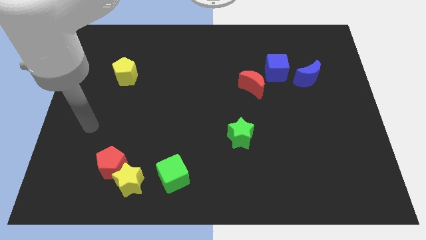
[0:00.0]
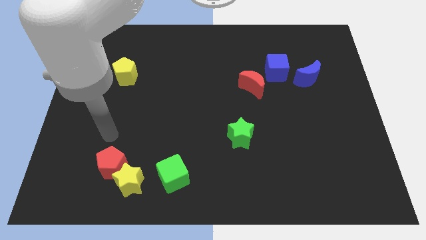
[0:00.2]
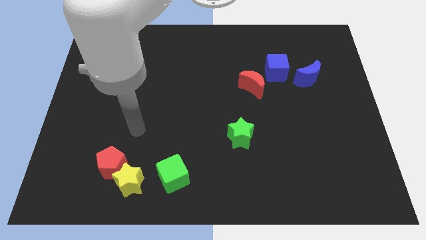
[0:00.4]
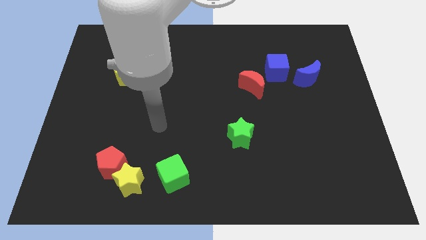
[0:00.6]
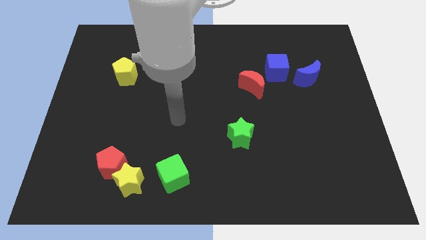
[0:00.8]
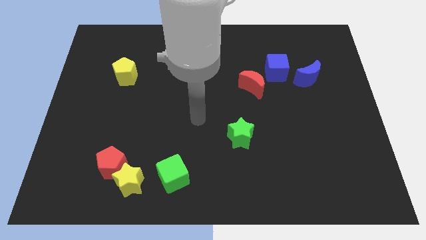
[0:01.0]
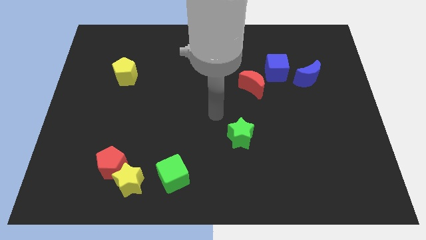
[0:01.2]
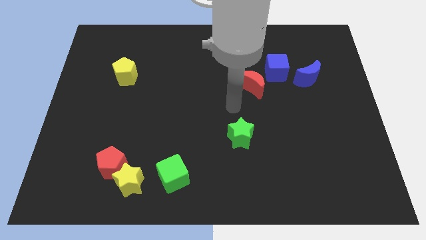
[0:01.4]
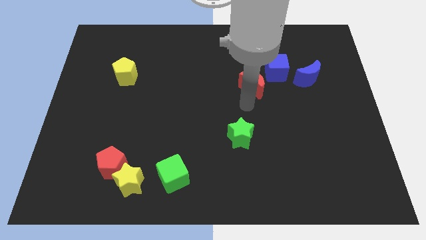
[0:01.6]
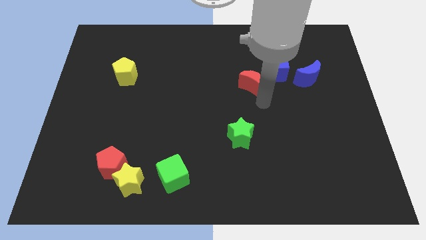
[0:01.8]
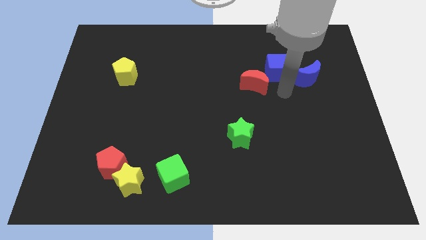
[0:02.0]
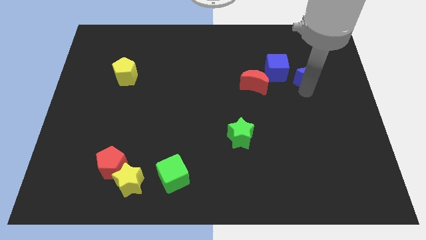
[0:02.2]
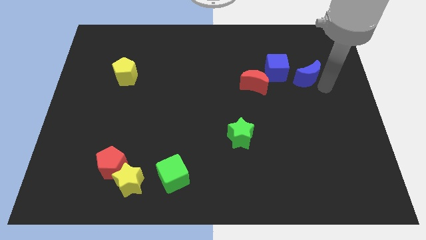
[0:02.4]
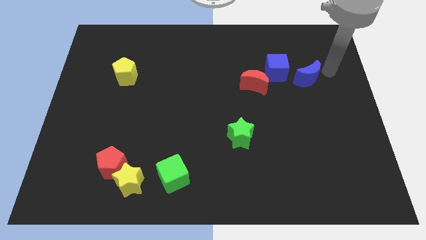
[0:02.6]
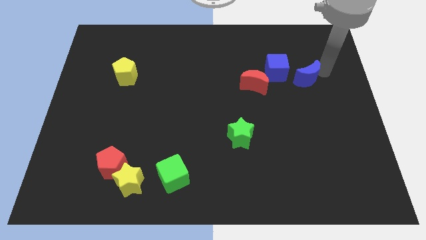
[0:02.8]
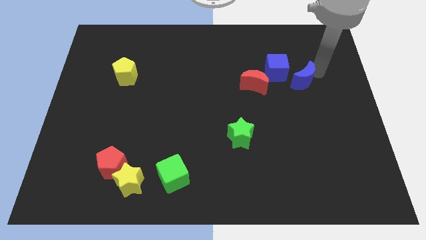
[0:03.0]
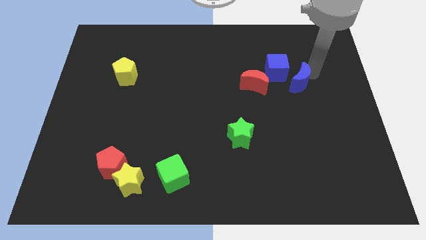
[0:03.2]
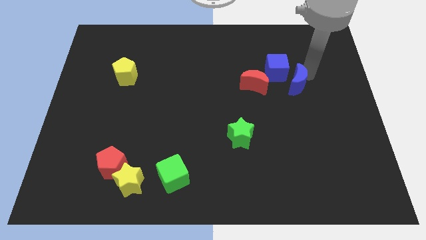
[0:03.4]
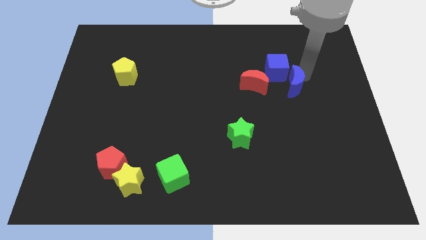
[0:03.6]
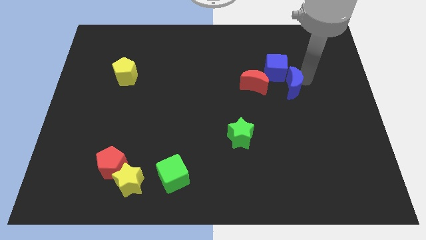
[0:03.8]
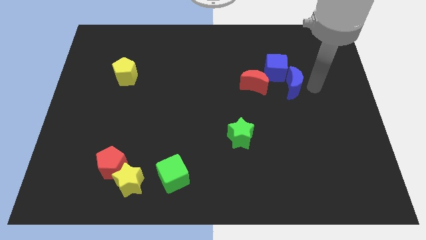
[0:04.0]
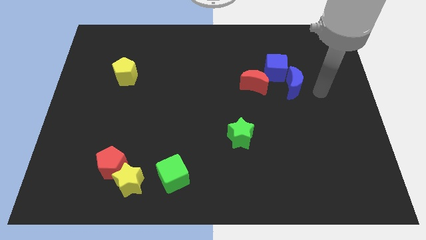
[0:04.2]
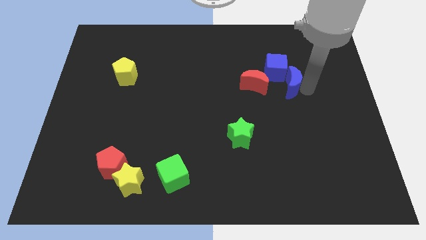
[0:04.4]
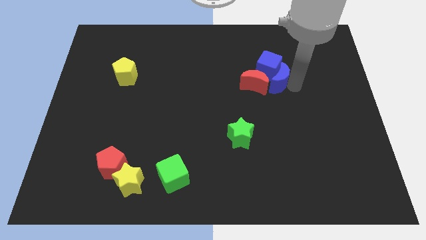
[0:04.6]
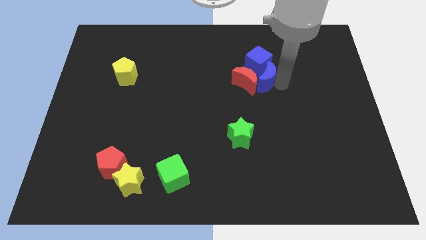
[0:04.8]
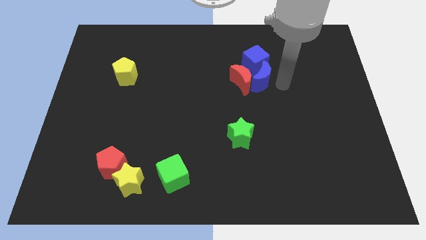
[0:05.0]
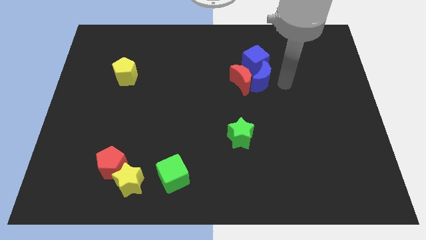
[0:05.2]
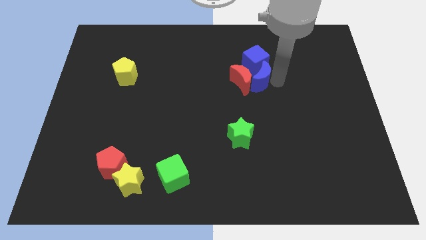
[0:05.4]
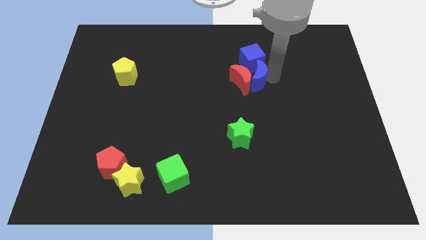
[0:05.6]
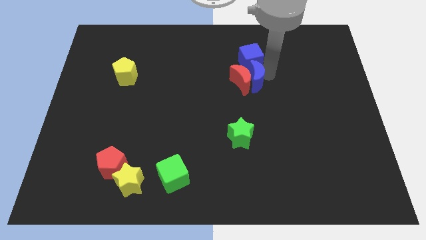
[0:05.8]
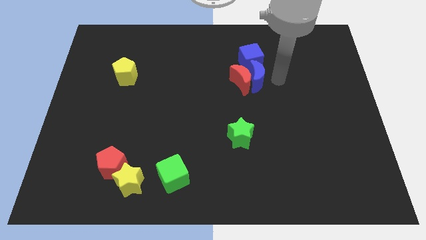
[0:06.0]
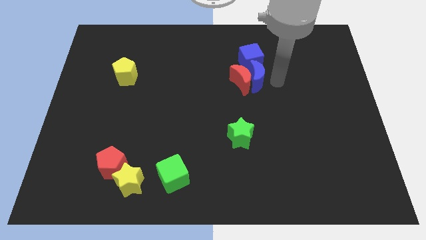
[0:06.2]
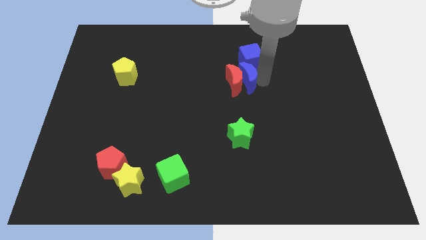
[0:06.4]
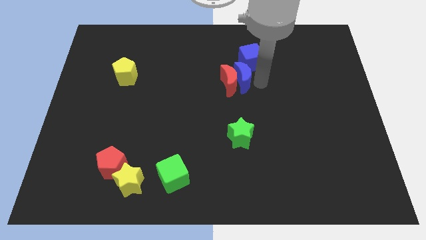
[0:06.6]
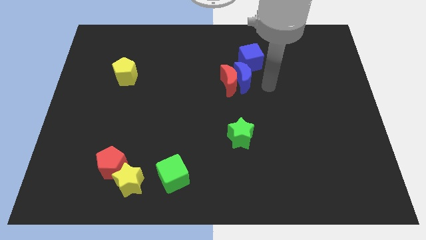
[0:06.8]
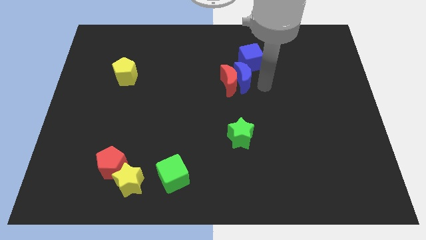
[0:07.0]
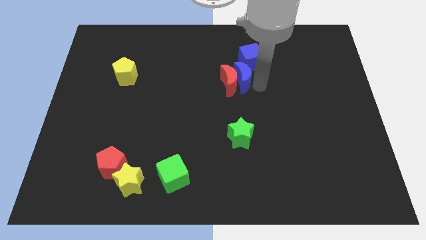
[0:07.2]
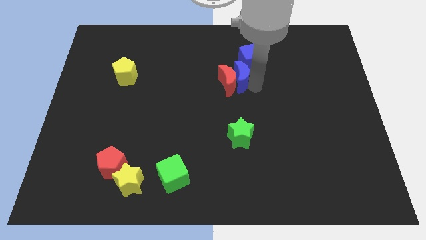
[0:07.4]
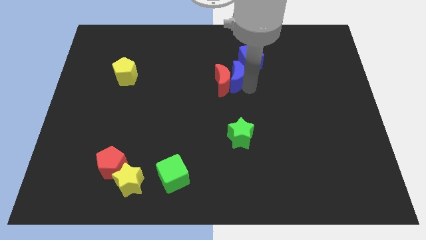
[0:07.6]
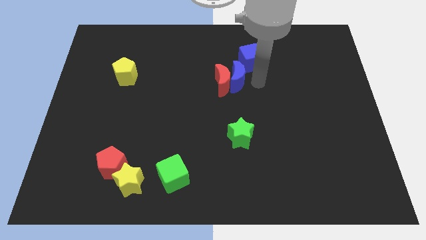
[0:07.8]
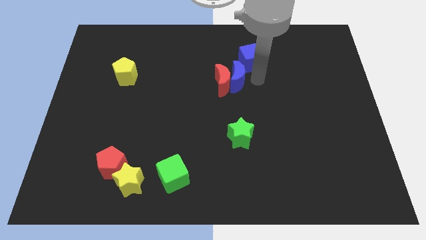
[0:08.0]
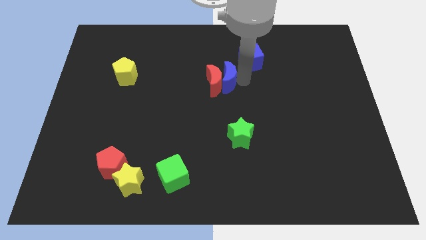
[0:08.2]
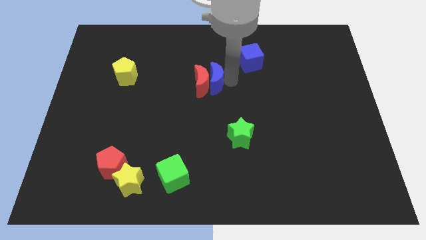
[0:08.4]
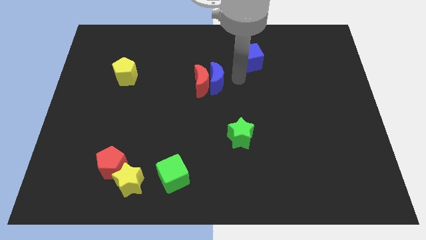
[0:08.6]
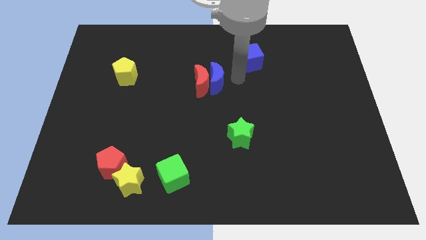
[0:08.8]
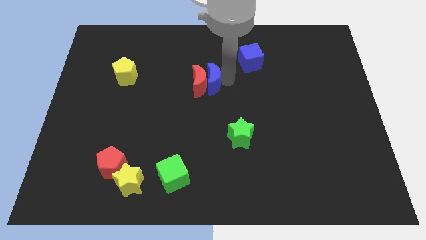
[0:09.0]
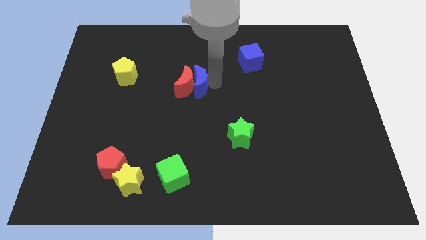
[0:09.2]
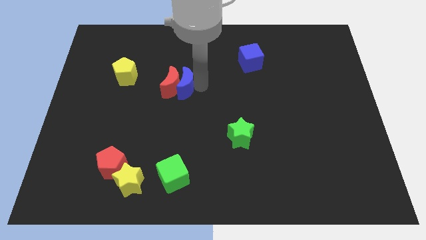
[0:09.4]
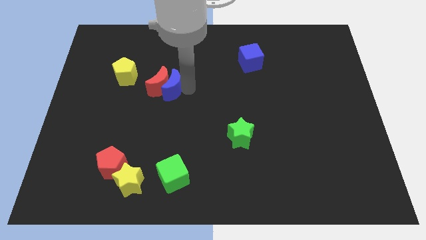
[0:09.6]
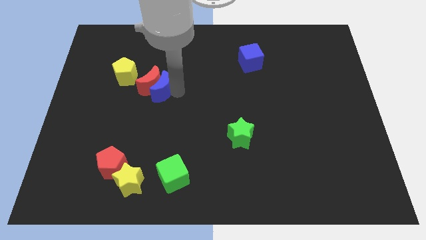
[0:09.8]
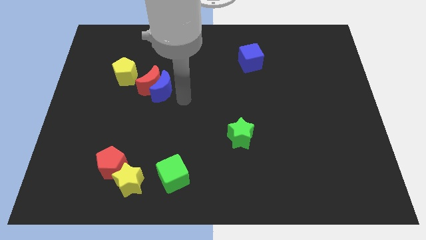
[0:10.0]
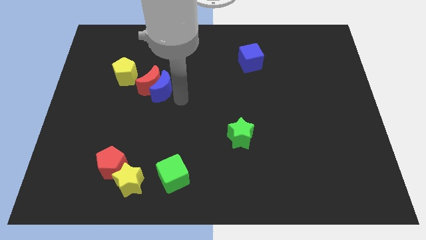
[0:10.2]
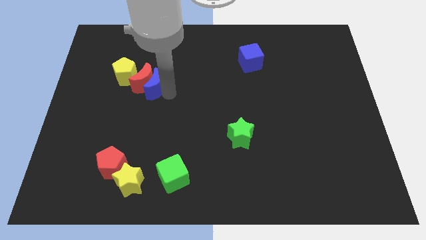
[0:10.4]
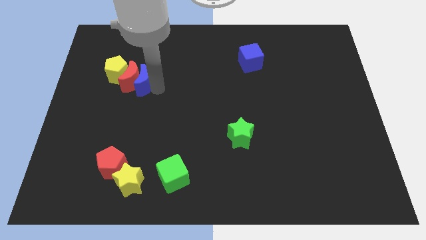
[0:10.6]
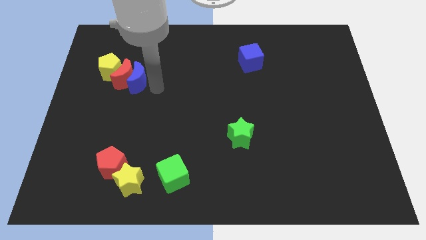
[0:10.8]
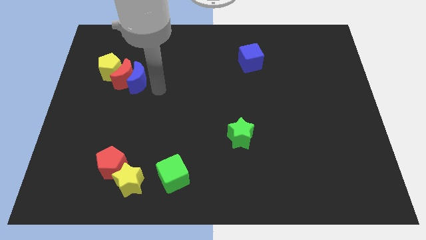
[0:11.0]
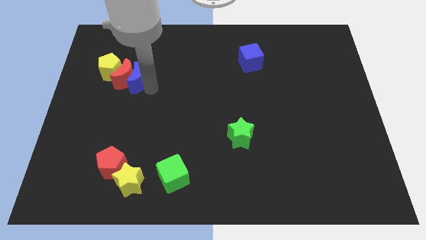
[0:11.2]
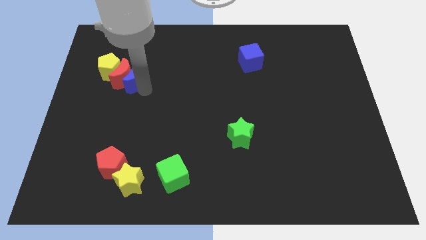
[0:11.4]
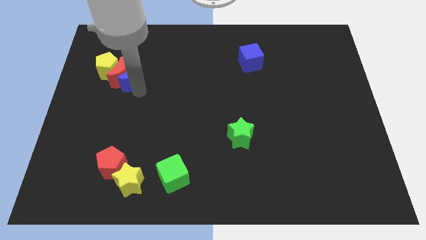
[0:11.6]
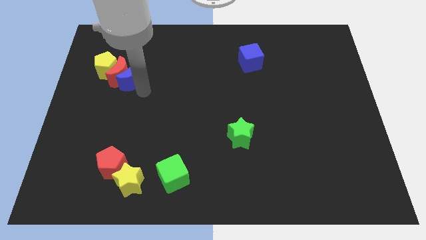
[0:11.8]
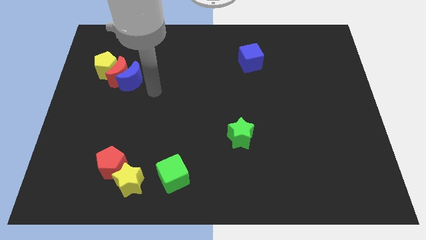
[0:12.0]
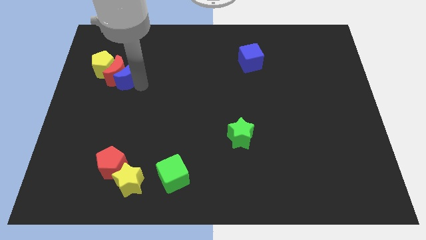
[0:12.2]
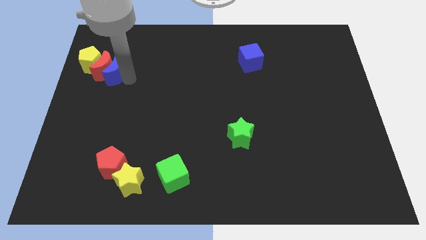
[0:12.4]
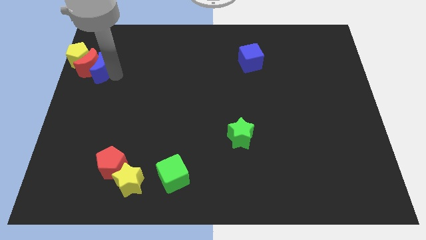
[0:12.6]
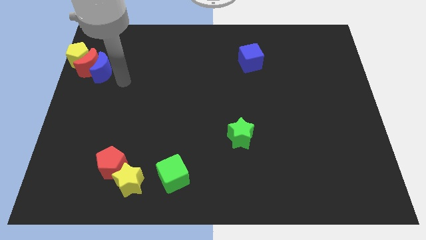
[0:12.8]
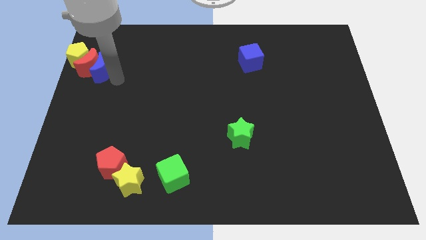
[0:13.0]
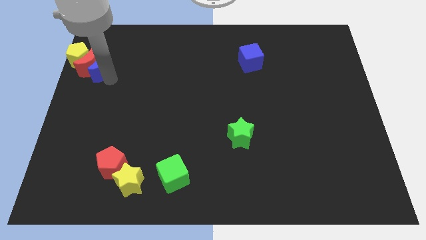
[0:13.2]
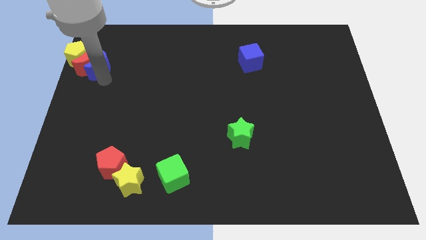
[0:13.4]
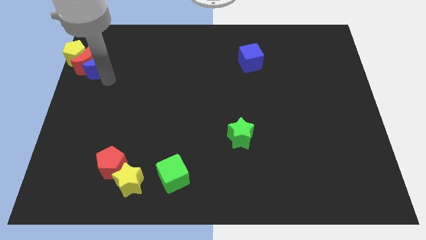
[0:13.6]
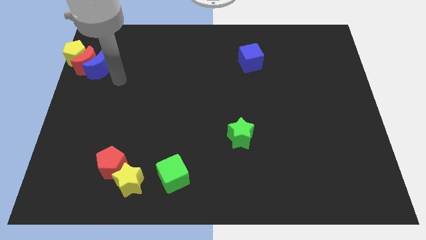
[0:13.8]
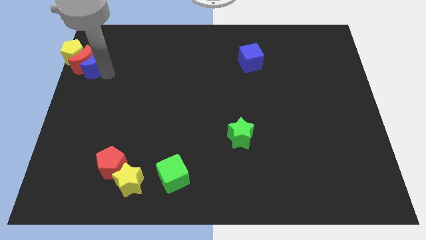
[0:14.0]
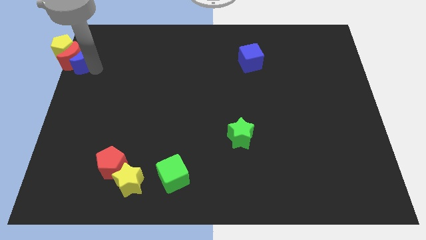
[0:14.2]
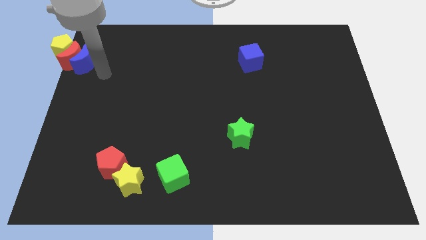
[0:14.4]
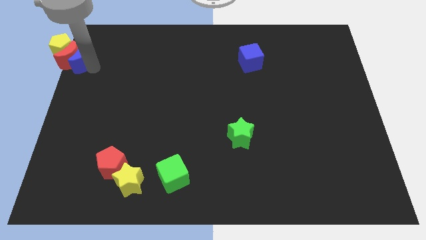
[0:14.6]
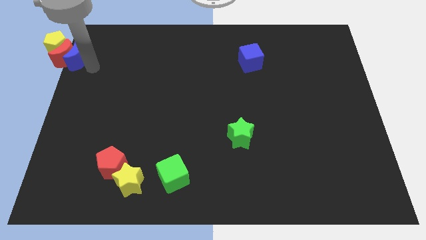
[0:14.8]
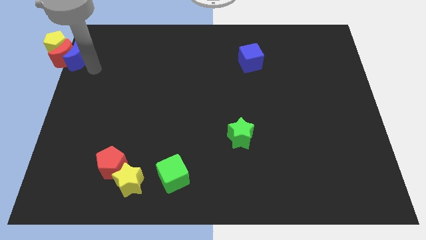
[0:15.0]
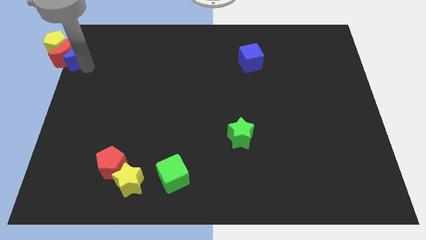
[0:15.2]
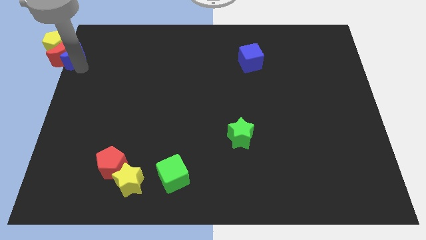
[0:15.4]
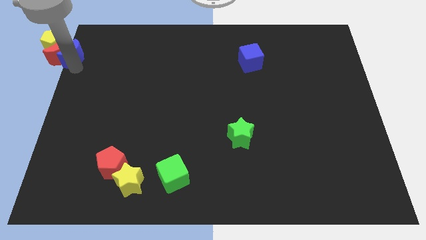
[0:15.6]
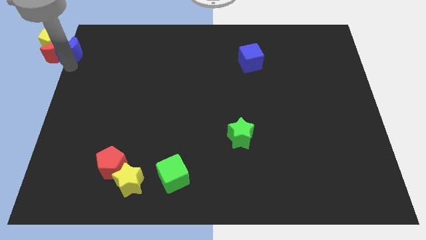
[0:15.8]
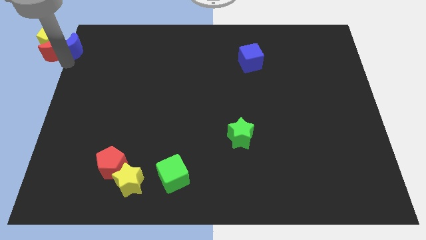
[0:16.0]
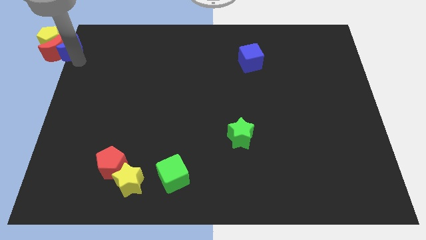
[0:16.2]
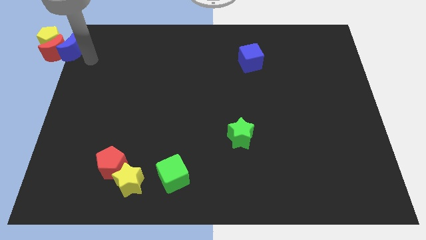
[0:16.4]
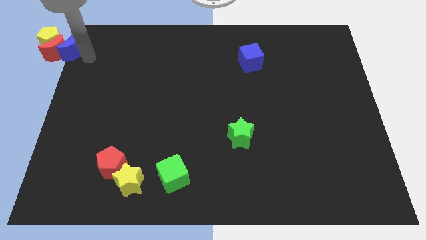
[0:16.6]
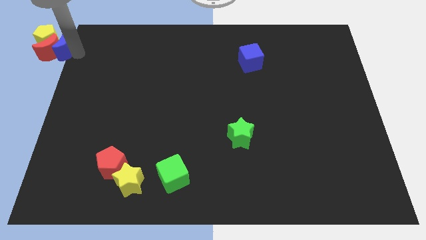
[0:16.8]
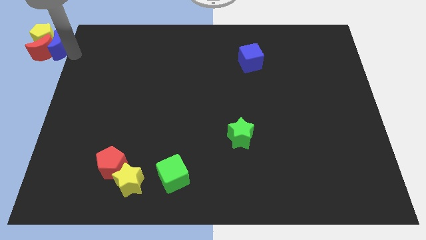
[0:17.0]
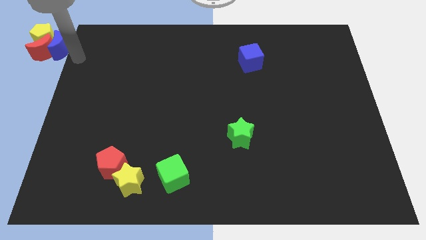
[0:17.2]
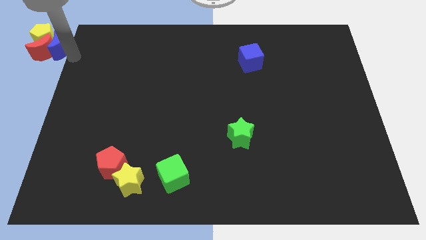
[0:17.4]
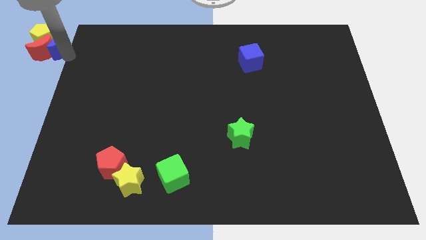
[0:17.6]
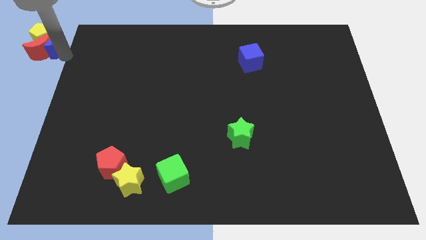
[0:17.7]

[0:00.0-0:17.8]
slide the blue moon to the yellow pentagon
